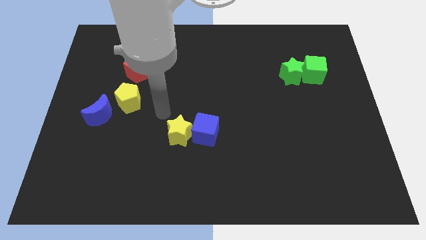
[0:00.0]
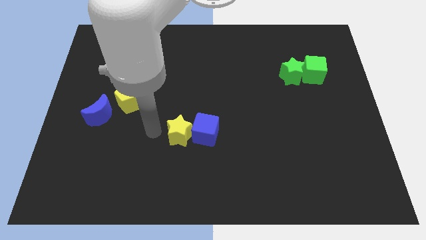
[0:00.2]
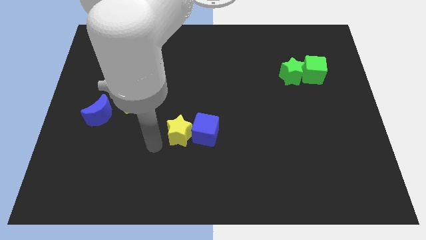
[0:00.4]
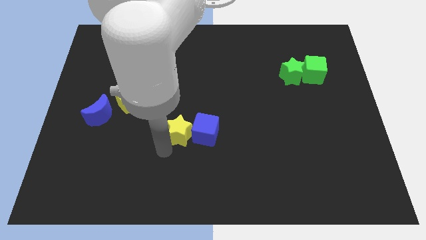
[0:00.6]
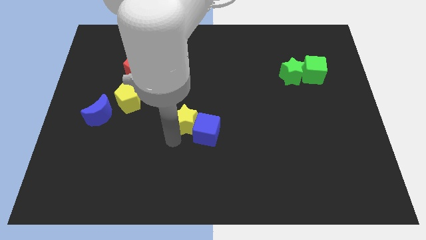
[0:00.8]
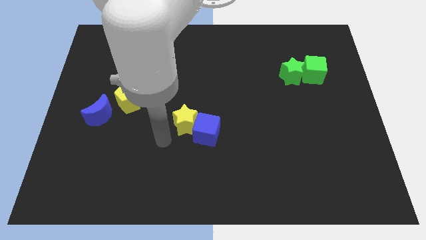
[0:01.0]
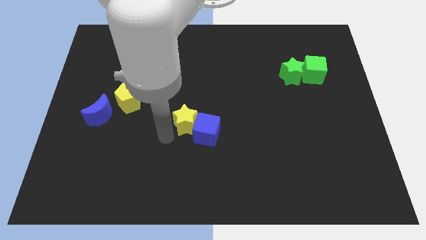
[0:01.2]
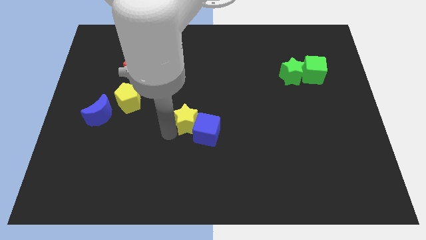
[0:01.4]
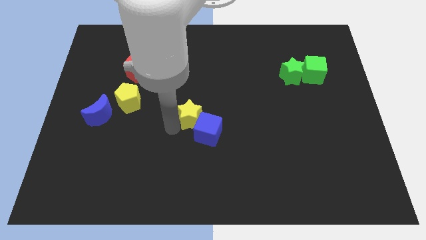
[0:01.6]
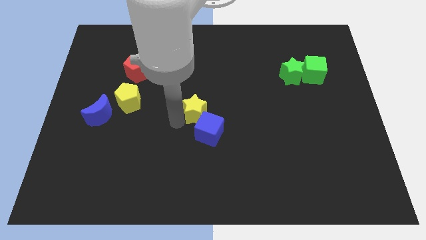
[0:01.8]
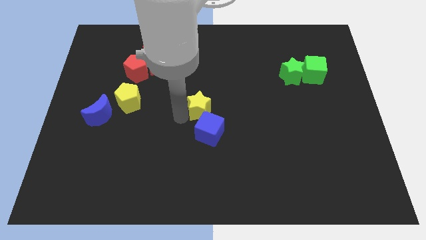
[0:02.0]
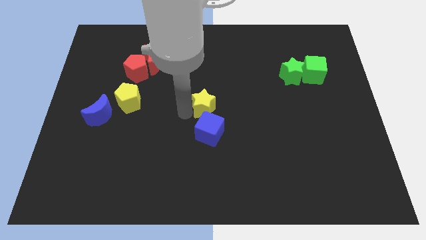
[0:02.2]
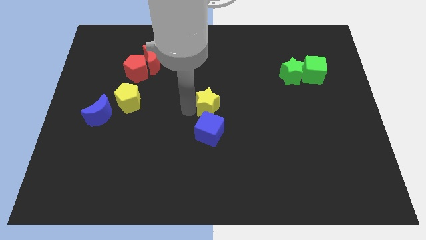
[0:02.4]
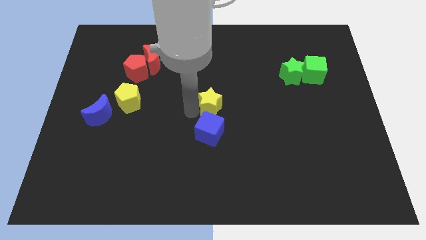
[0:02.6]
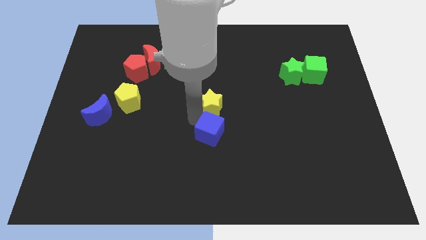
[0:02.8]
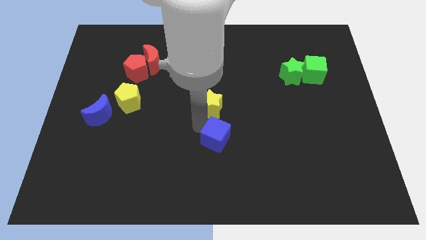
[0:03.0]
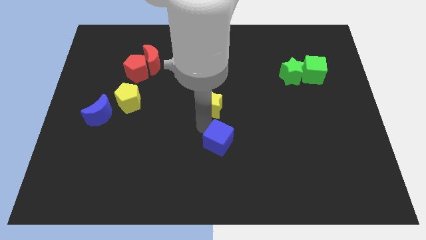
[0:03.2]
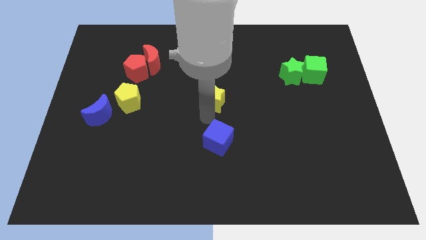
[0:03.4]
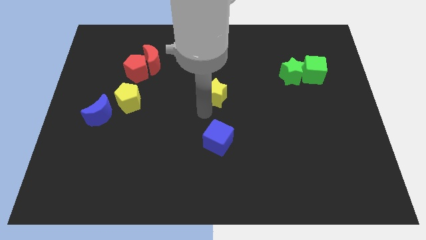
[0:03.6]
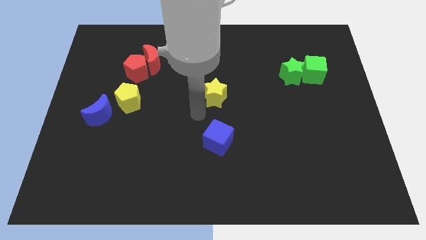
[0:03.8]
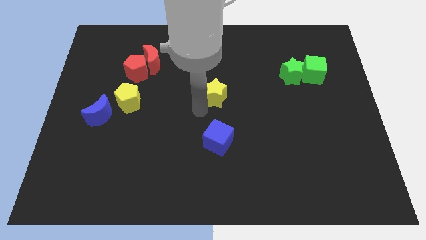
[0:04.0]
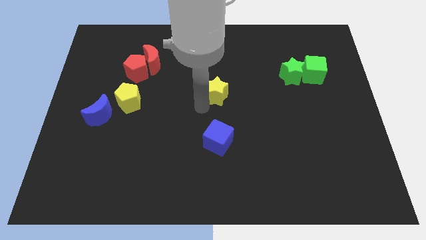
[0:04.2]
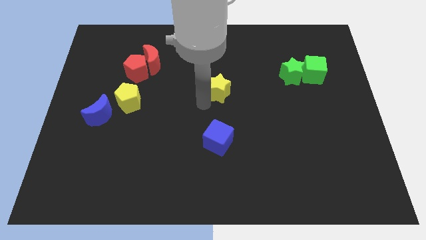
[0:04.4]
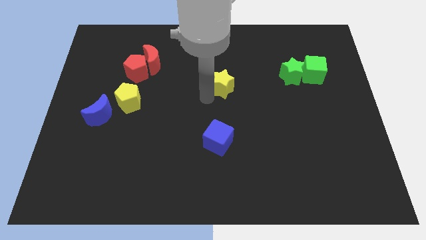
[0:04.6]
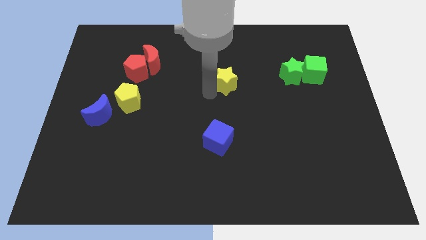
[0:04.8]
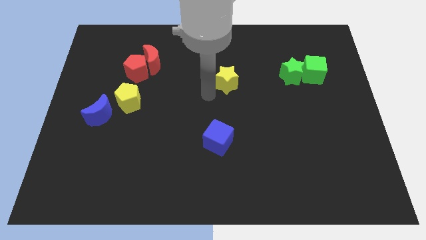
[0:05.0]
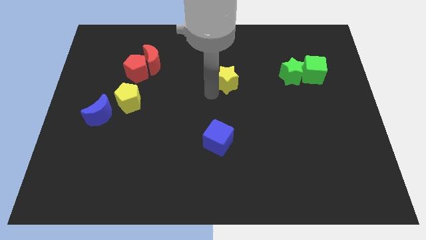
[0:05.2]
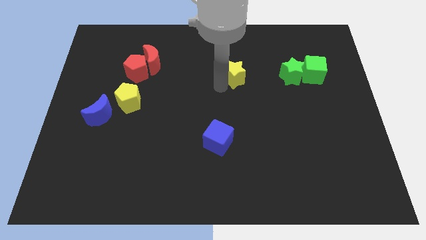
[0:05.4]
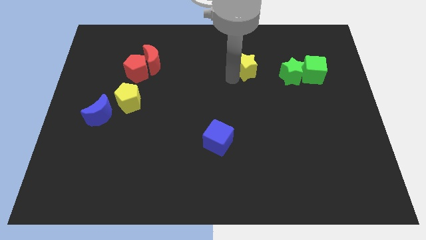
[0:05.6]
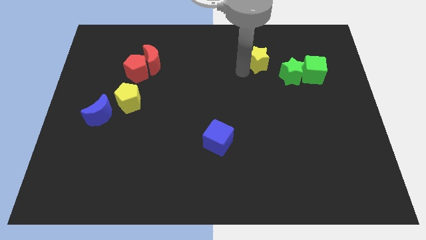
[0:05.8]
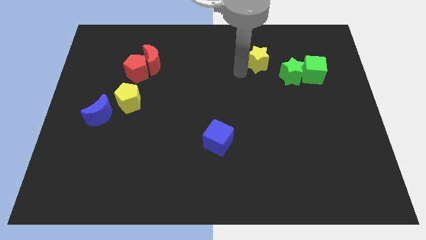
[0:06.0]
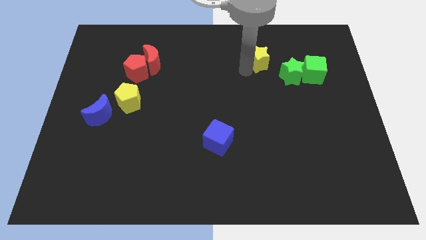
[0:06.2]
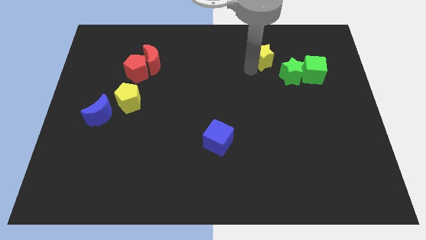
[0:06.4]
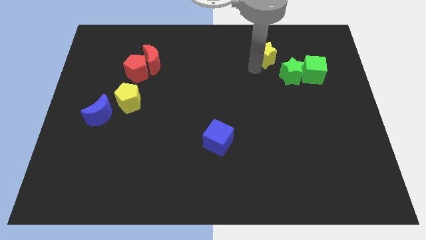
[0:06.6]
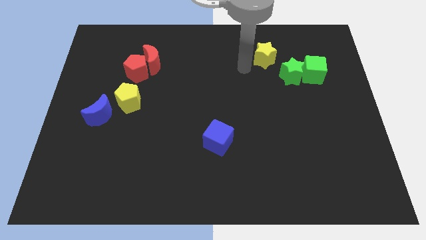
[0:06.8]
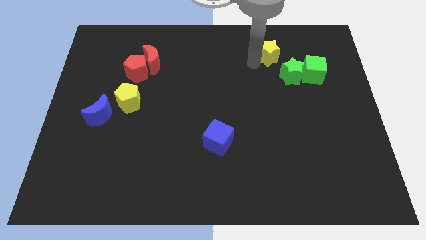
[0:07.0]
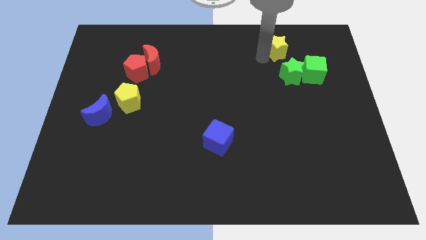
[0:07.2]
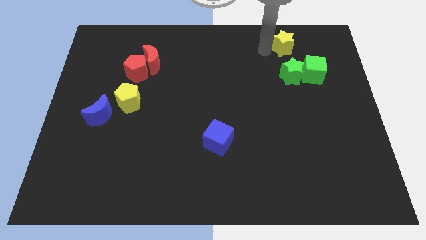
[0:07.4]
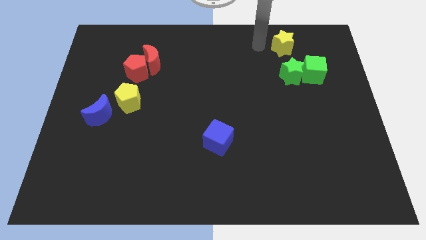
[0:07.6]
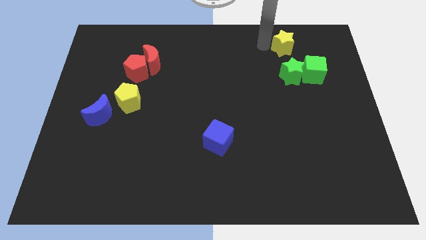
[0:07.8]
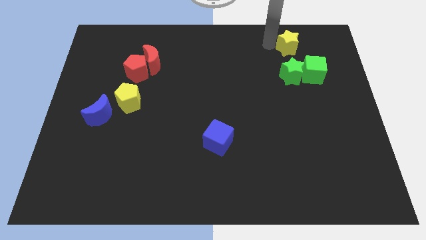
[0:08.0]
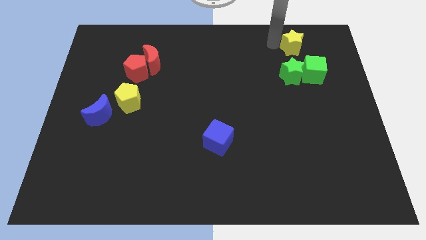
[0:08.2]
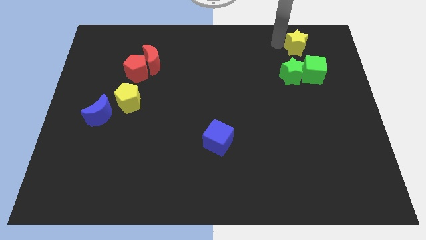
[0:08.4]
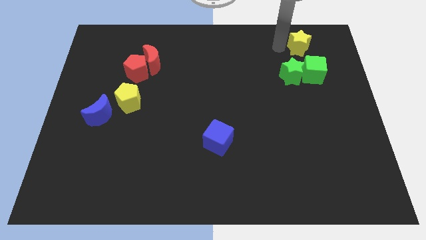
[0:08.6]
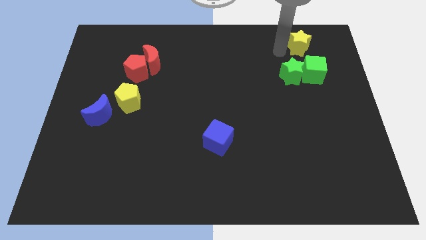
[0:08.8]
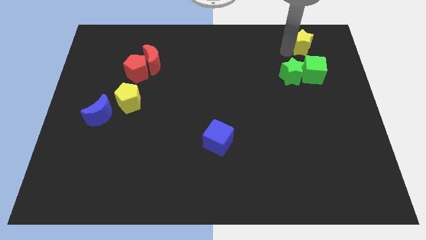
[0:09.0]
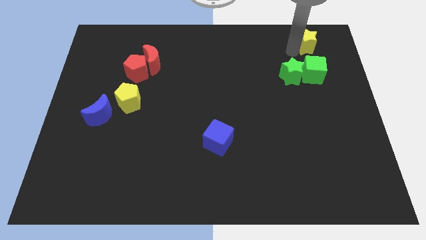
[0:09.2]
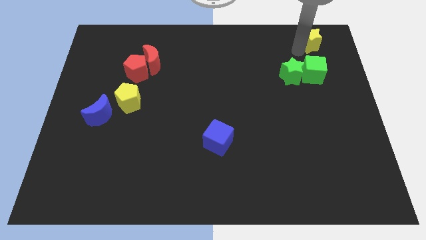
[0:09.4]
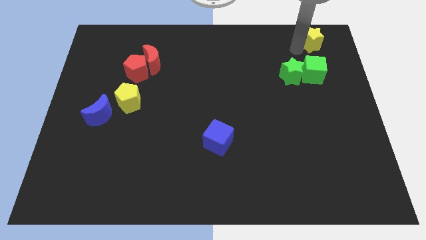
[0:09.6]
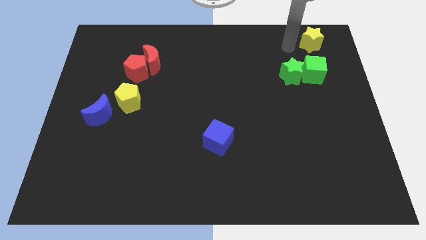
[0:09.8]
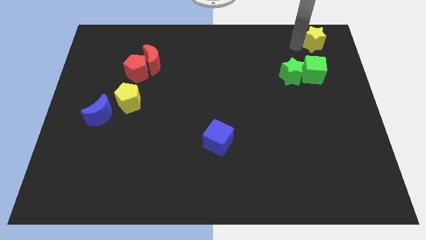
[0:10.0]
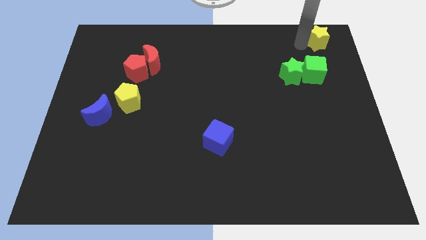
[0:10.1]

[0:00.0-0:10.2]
put the yellow star to the top right of the board

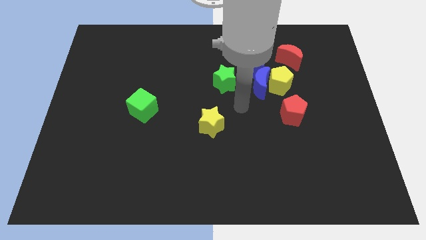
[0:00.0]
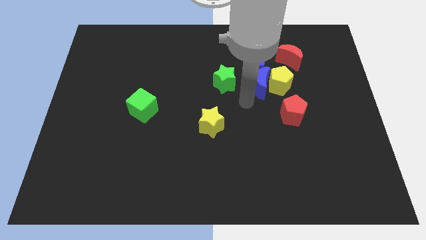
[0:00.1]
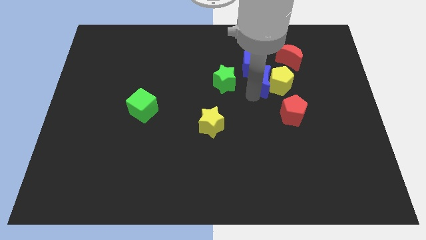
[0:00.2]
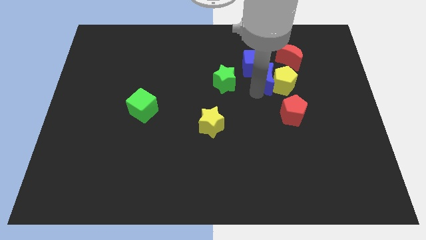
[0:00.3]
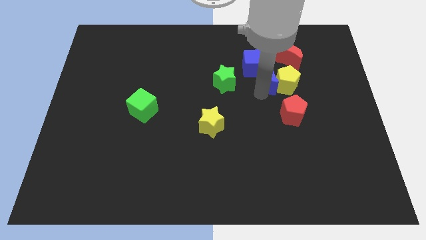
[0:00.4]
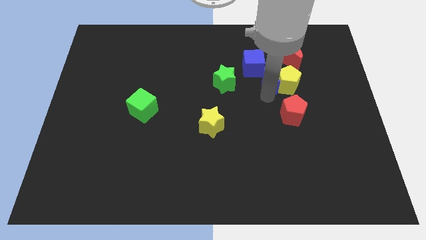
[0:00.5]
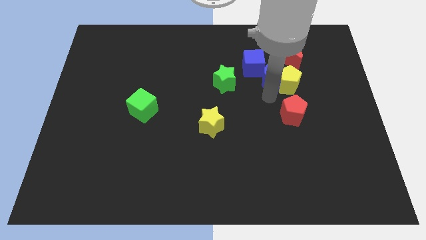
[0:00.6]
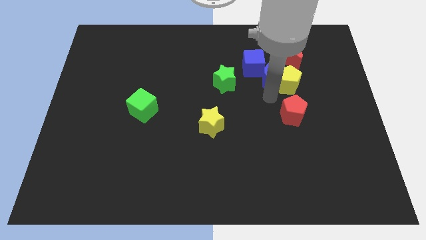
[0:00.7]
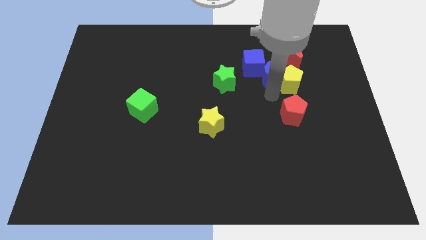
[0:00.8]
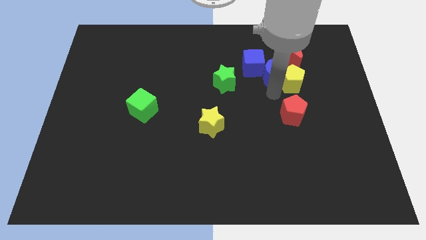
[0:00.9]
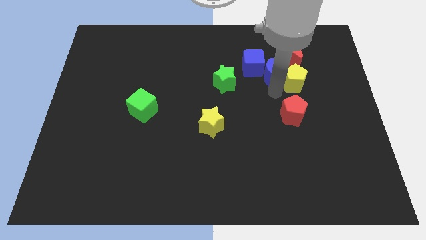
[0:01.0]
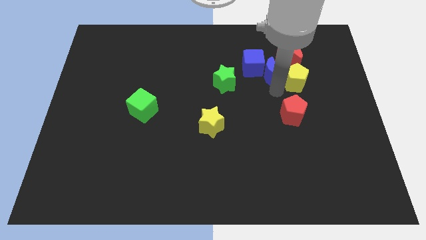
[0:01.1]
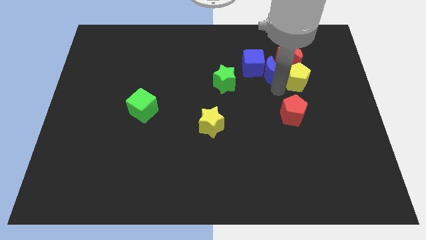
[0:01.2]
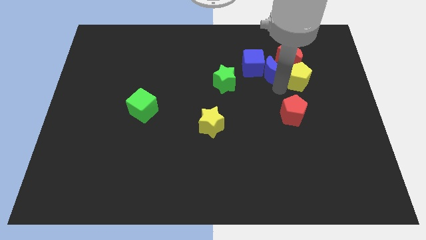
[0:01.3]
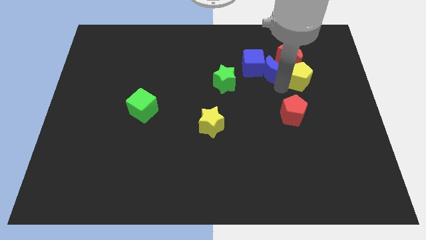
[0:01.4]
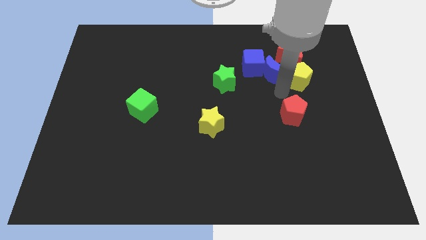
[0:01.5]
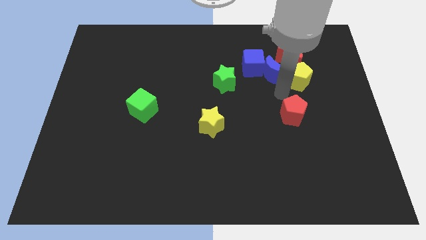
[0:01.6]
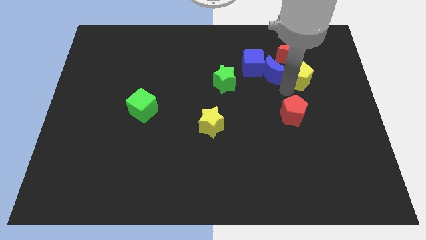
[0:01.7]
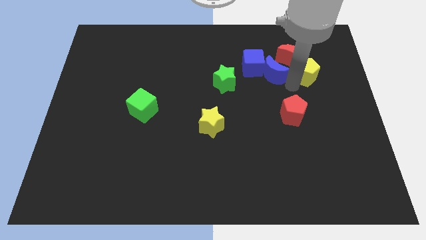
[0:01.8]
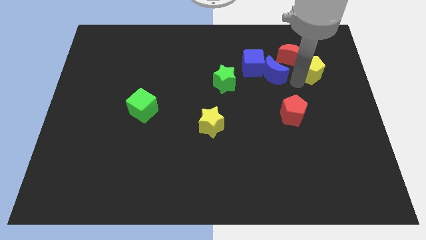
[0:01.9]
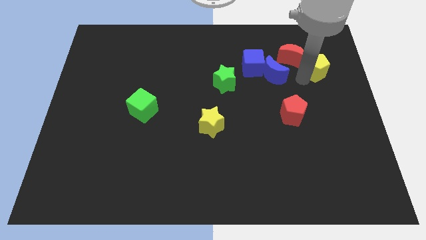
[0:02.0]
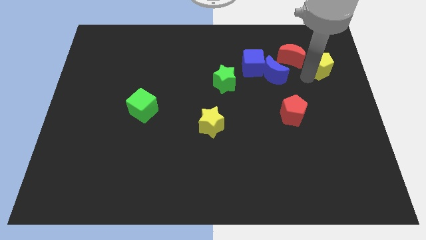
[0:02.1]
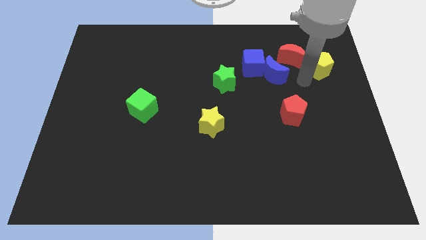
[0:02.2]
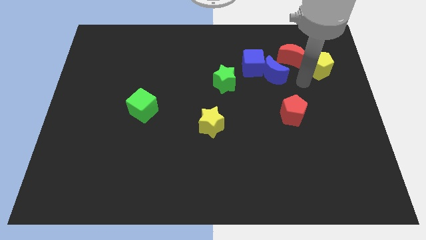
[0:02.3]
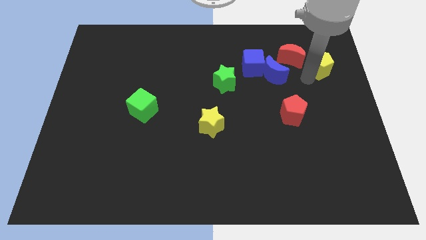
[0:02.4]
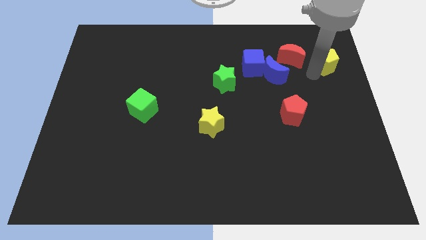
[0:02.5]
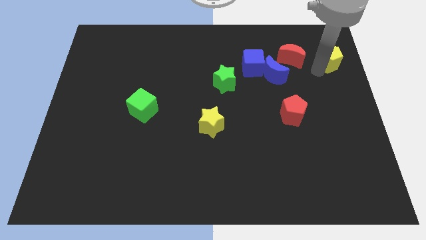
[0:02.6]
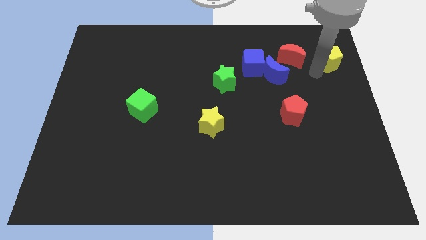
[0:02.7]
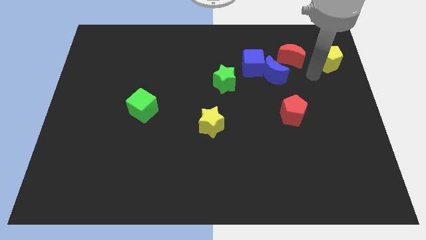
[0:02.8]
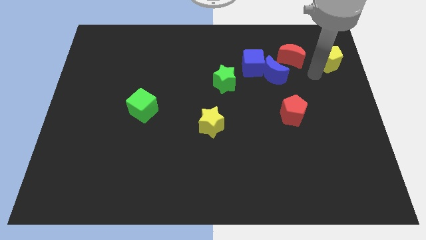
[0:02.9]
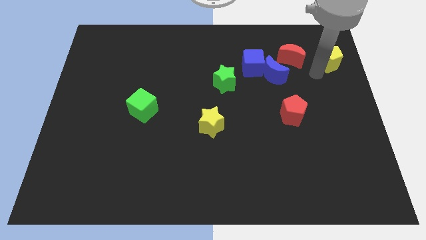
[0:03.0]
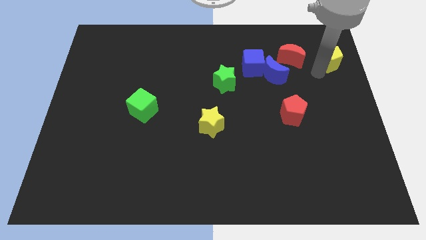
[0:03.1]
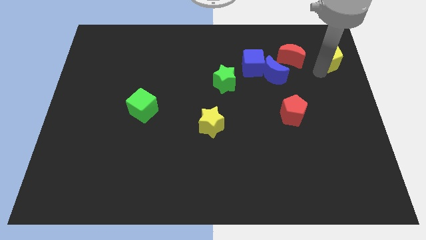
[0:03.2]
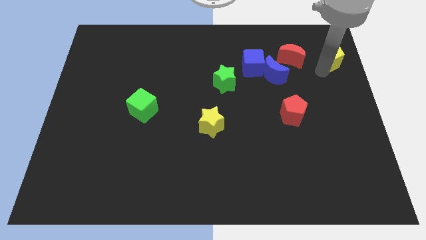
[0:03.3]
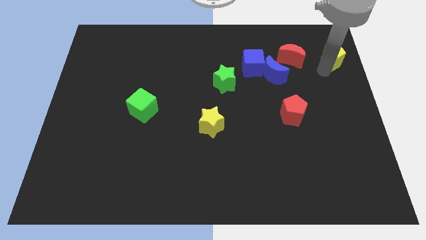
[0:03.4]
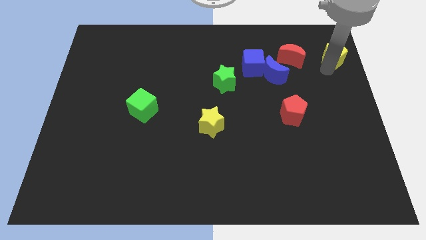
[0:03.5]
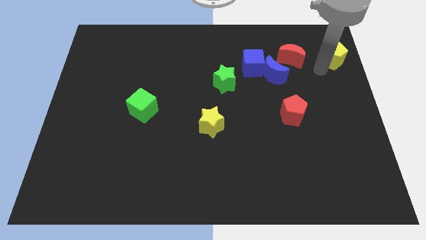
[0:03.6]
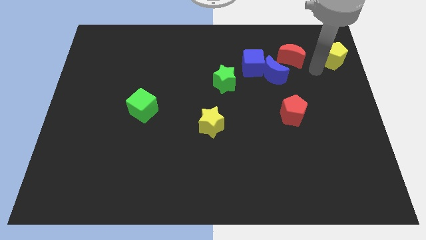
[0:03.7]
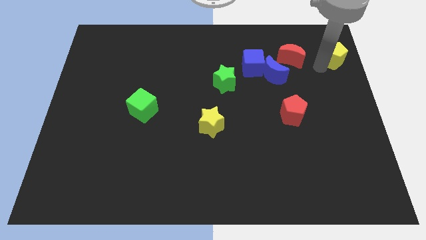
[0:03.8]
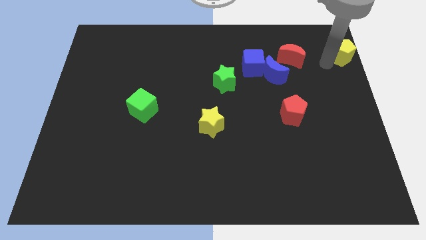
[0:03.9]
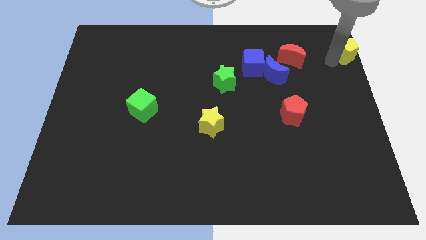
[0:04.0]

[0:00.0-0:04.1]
put the yellow pentagon to the top right
